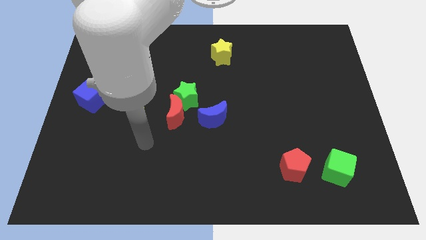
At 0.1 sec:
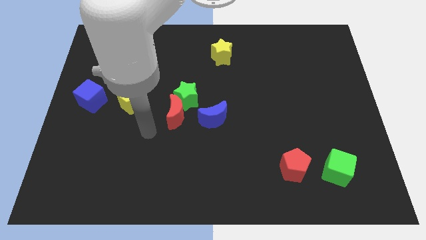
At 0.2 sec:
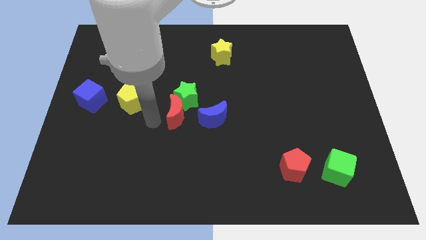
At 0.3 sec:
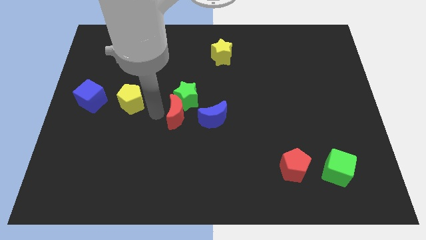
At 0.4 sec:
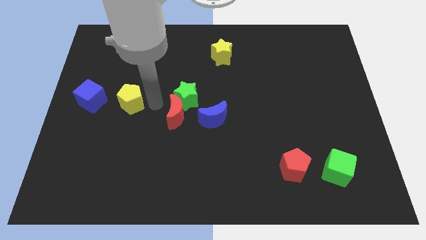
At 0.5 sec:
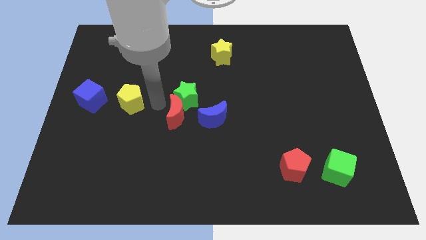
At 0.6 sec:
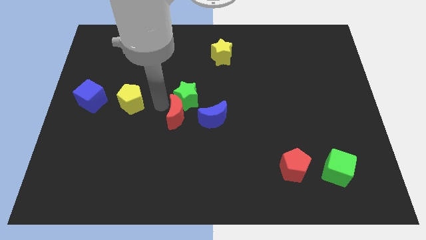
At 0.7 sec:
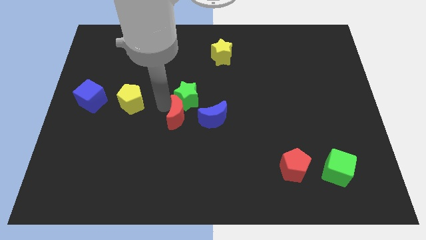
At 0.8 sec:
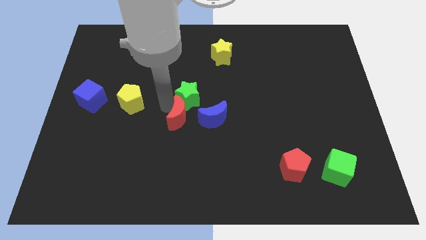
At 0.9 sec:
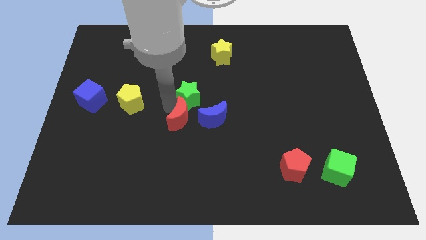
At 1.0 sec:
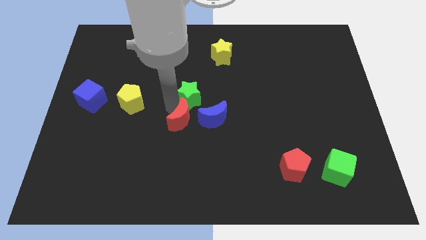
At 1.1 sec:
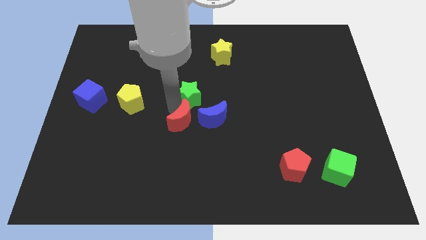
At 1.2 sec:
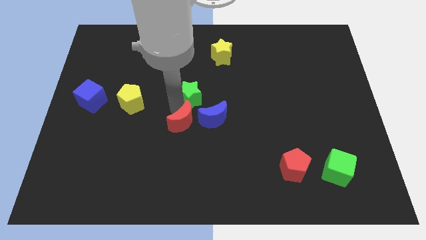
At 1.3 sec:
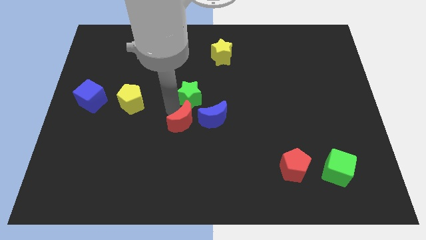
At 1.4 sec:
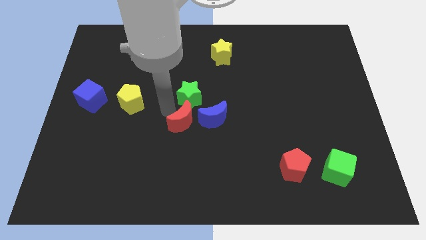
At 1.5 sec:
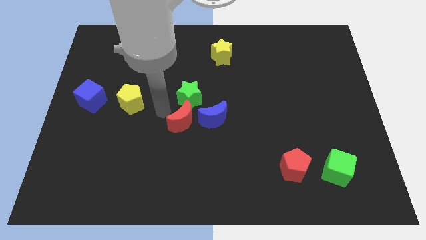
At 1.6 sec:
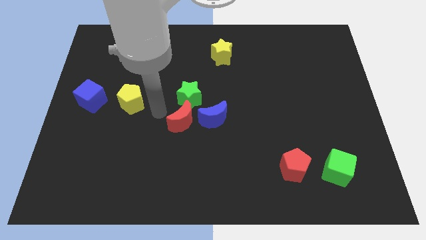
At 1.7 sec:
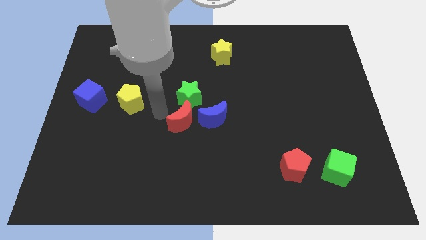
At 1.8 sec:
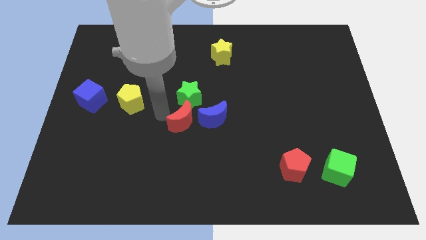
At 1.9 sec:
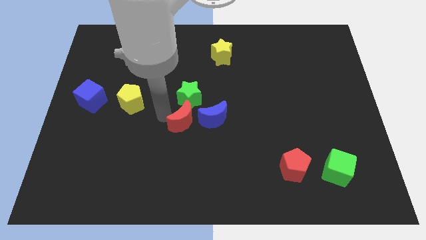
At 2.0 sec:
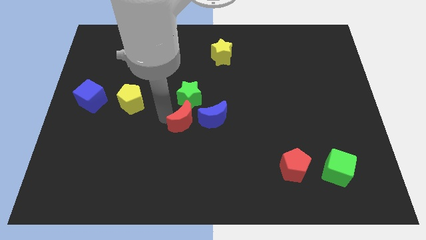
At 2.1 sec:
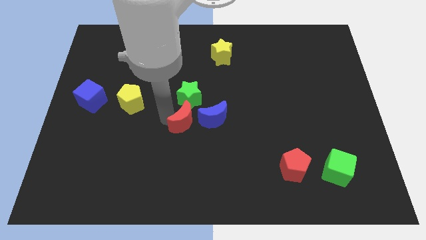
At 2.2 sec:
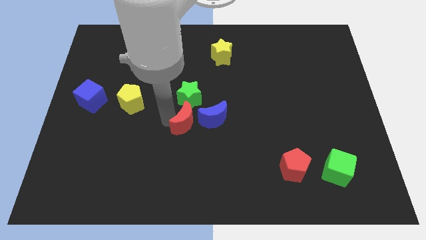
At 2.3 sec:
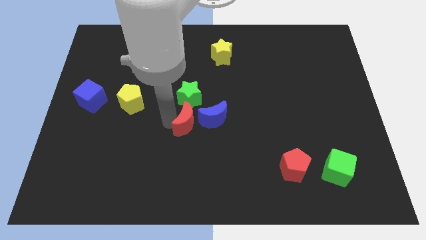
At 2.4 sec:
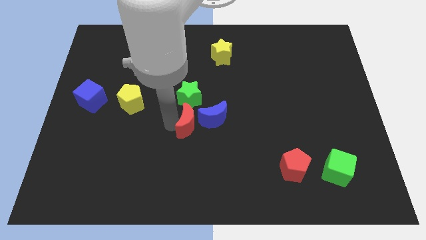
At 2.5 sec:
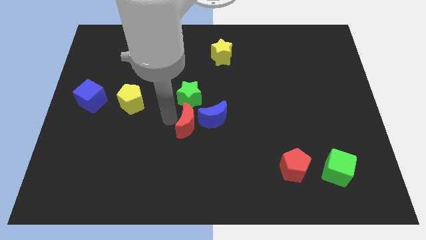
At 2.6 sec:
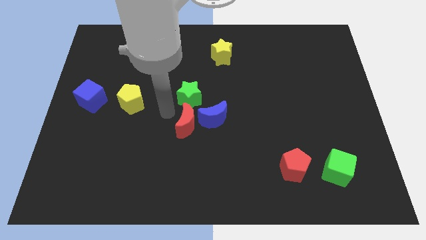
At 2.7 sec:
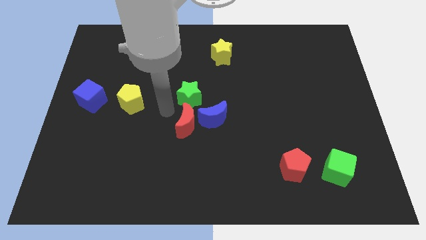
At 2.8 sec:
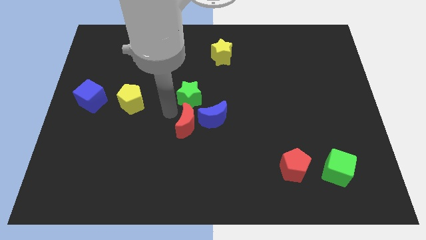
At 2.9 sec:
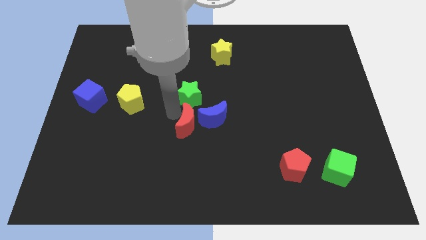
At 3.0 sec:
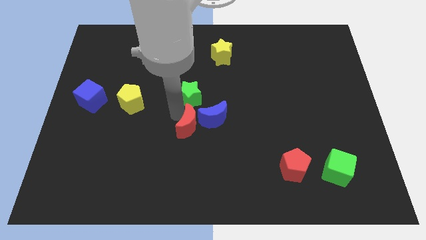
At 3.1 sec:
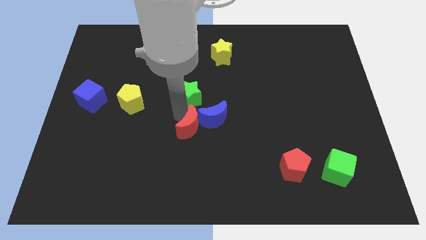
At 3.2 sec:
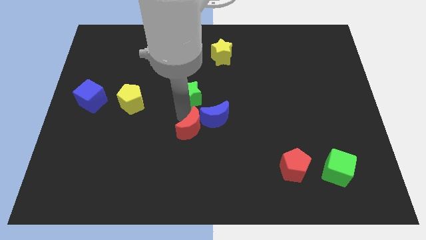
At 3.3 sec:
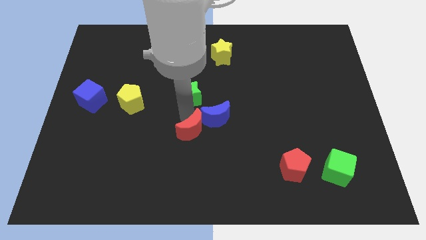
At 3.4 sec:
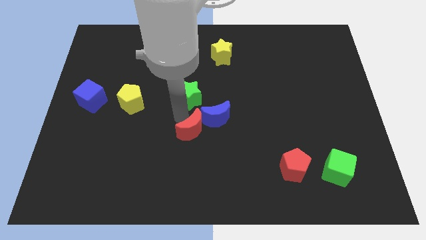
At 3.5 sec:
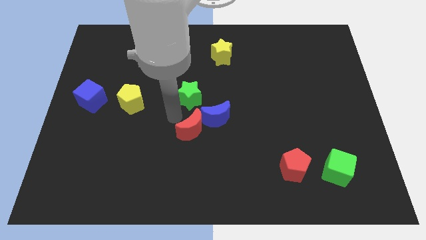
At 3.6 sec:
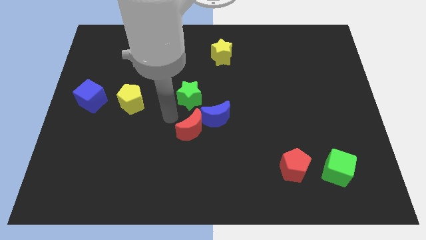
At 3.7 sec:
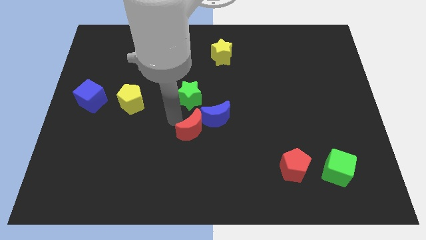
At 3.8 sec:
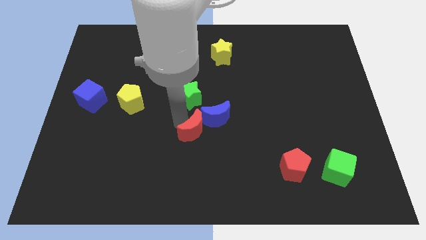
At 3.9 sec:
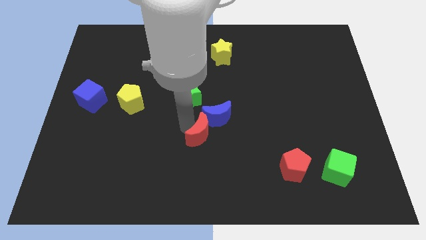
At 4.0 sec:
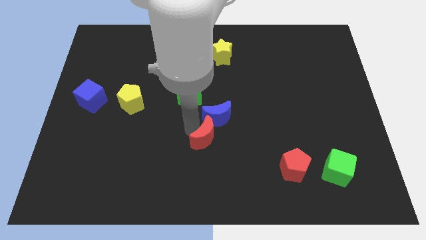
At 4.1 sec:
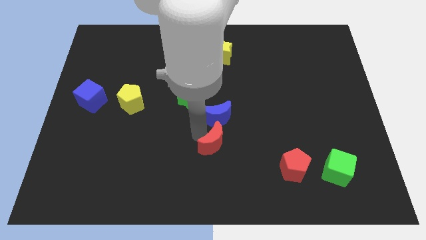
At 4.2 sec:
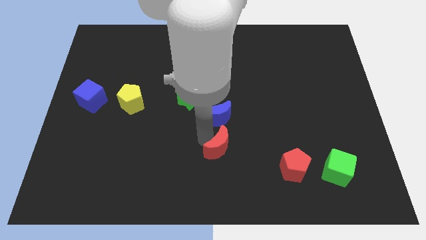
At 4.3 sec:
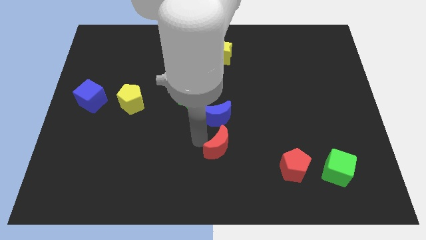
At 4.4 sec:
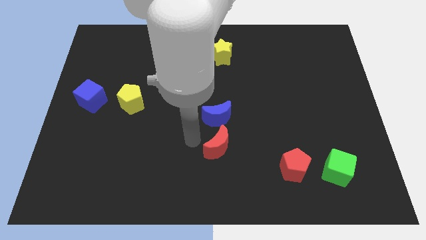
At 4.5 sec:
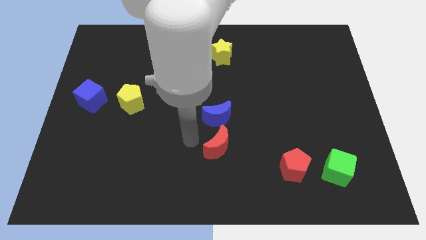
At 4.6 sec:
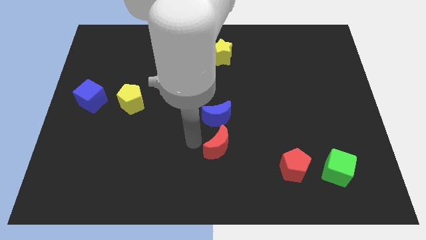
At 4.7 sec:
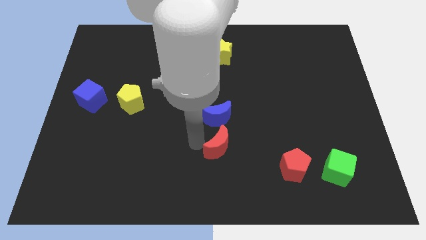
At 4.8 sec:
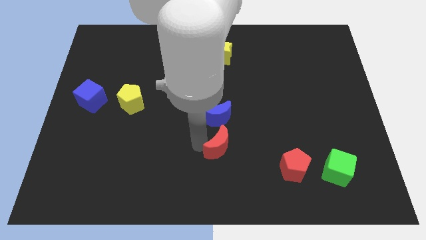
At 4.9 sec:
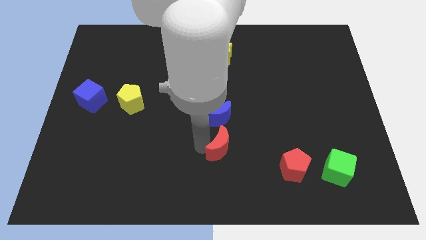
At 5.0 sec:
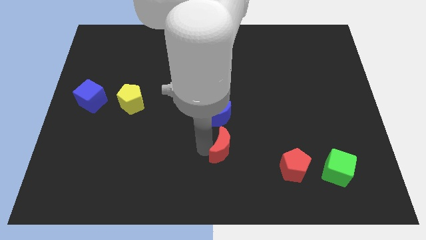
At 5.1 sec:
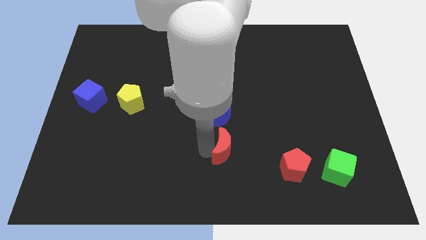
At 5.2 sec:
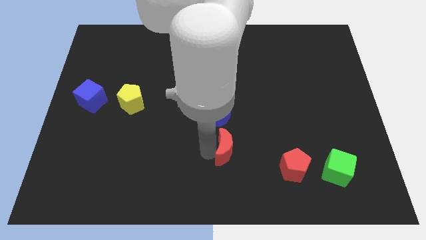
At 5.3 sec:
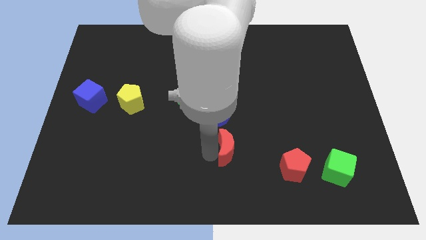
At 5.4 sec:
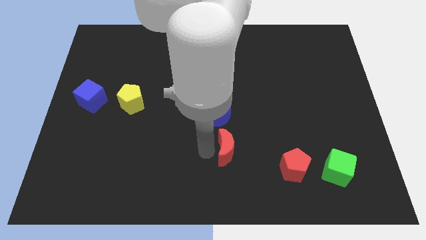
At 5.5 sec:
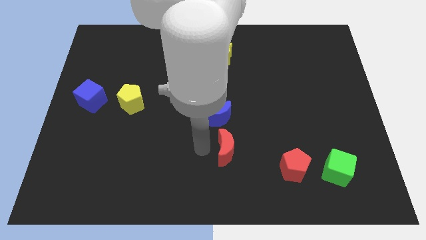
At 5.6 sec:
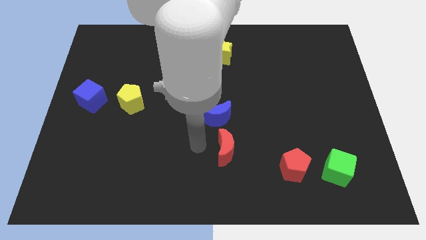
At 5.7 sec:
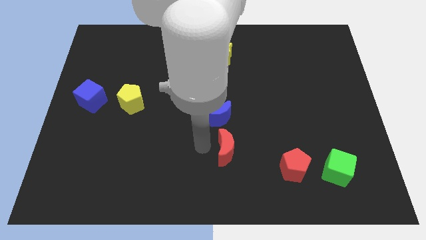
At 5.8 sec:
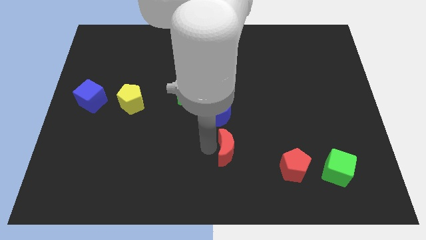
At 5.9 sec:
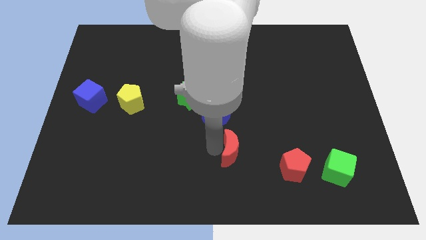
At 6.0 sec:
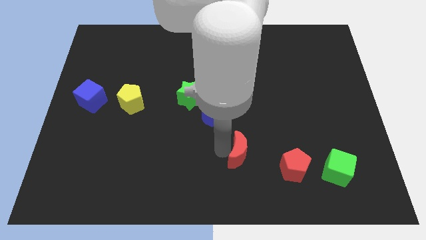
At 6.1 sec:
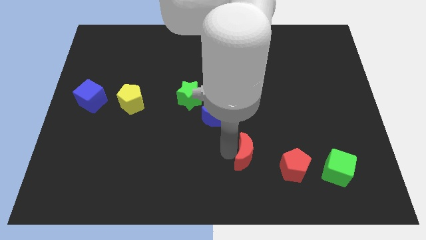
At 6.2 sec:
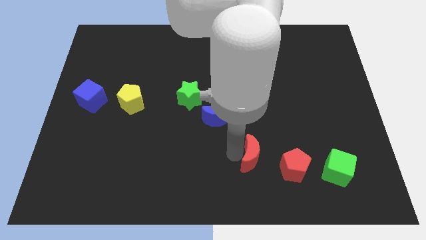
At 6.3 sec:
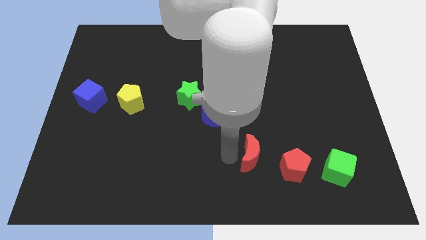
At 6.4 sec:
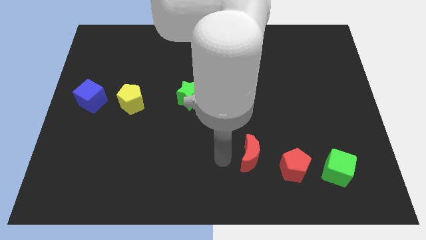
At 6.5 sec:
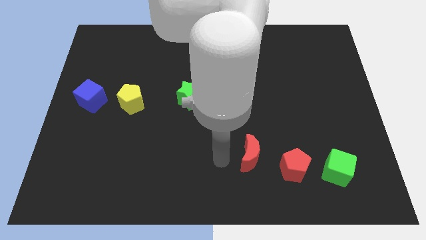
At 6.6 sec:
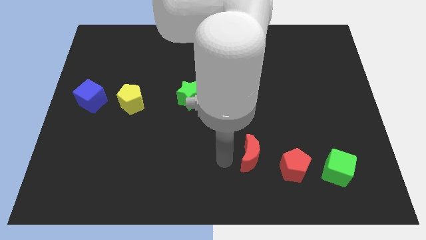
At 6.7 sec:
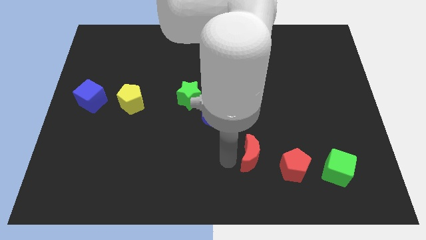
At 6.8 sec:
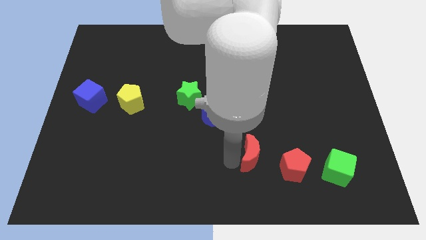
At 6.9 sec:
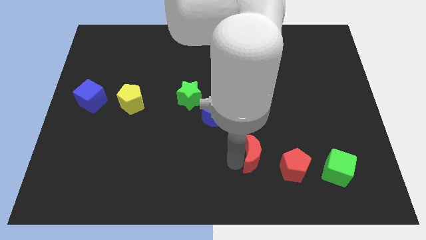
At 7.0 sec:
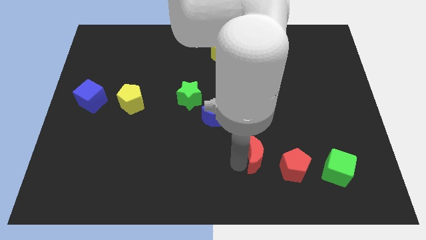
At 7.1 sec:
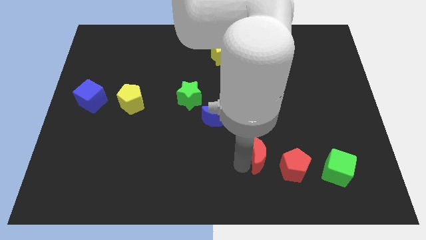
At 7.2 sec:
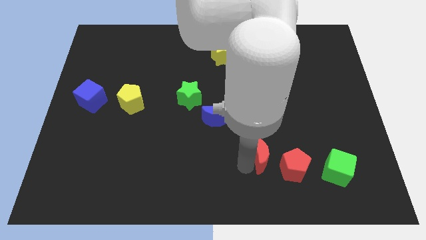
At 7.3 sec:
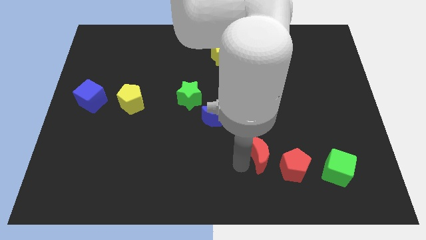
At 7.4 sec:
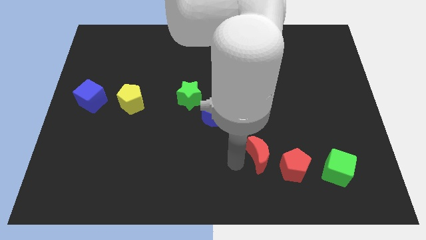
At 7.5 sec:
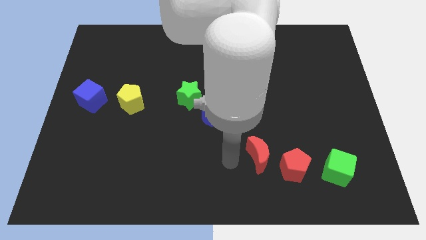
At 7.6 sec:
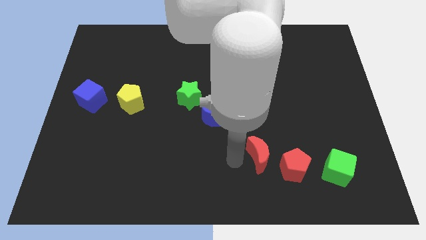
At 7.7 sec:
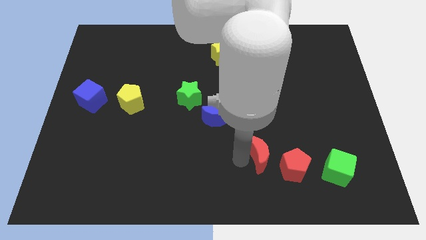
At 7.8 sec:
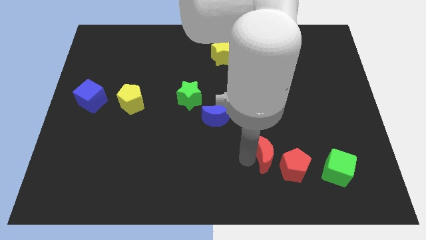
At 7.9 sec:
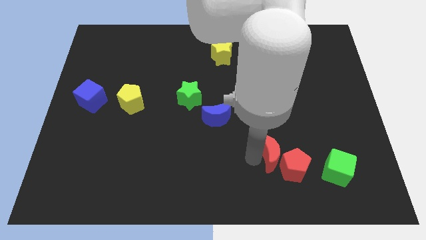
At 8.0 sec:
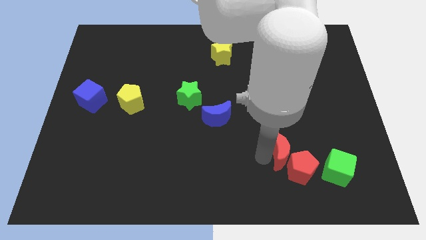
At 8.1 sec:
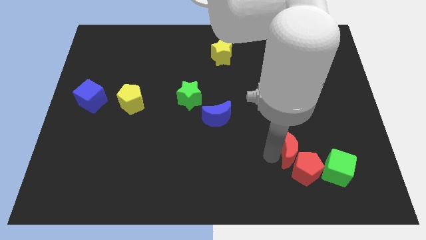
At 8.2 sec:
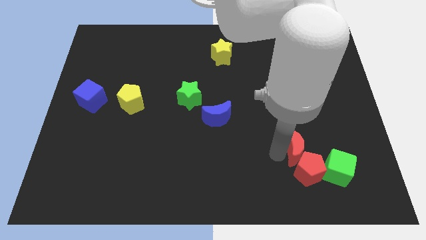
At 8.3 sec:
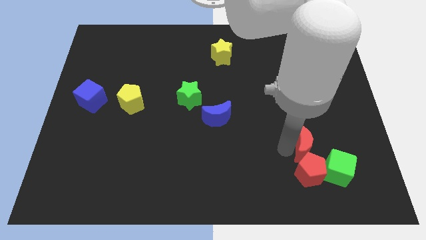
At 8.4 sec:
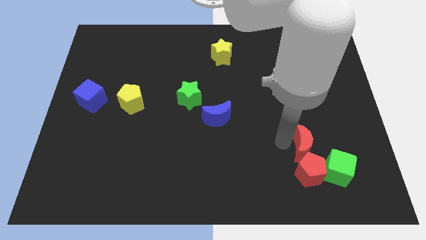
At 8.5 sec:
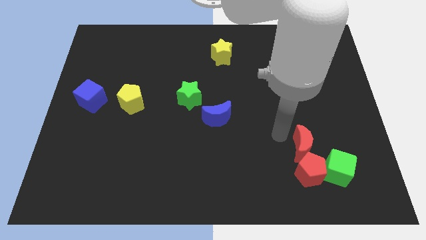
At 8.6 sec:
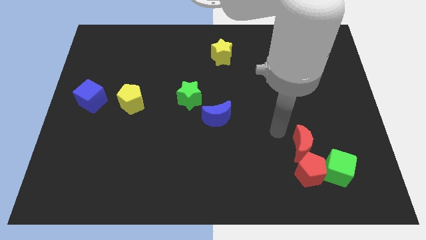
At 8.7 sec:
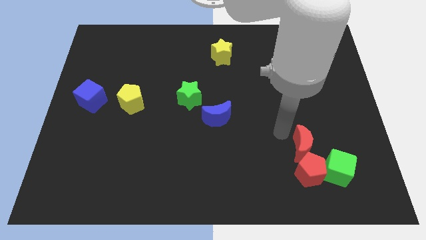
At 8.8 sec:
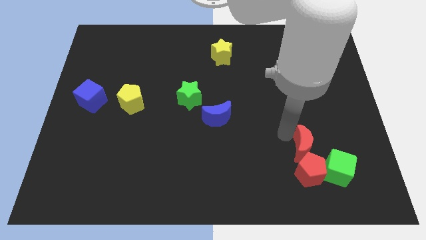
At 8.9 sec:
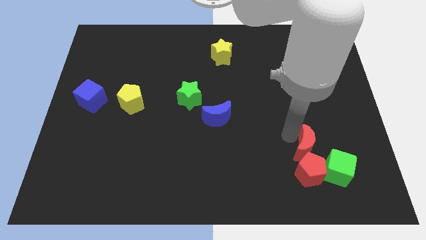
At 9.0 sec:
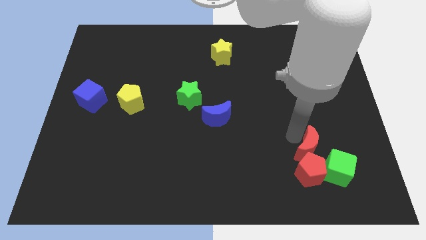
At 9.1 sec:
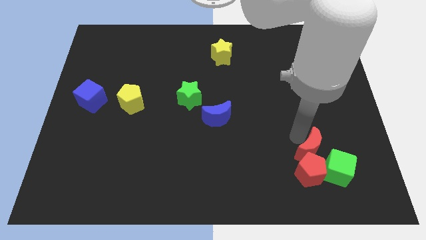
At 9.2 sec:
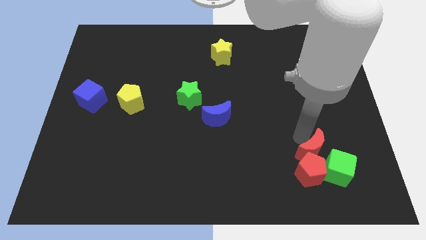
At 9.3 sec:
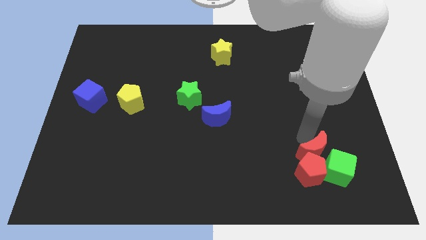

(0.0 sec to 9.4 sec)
put the red moon next to the green cube
